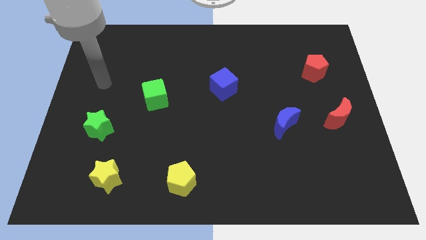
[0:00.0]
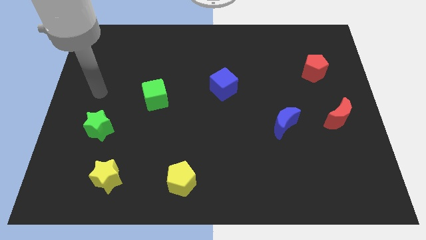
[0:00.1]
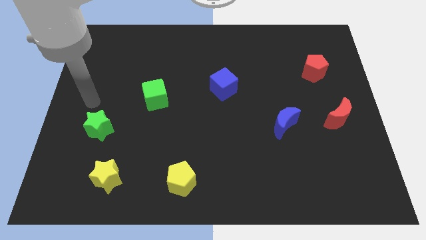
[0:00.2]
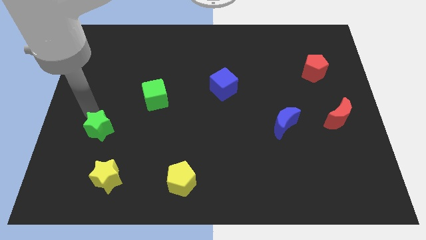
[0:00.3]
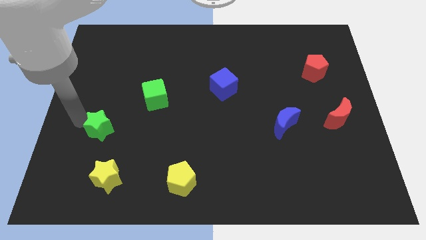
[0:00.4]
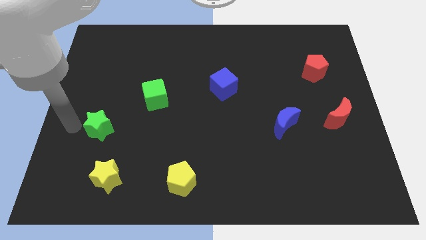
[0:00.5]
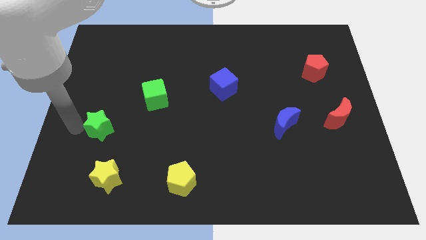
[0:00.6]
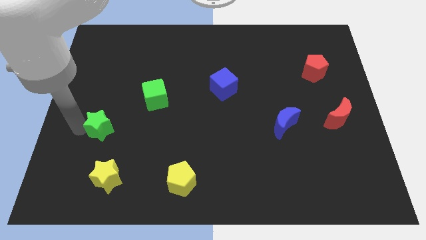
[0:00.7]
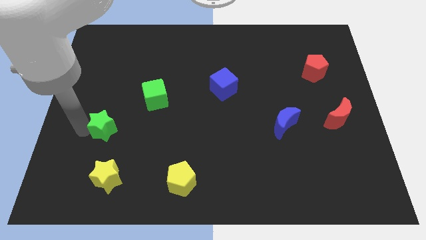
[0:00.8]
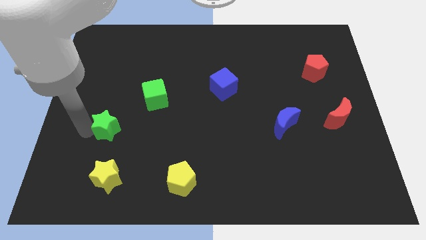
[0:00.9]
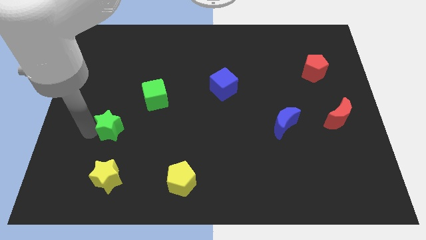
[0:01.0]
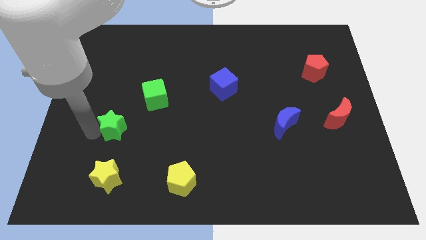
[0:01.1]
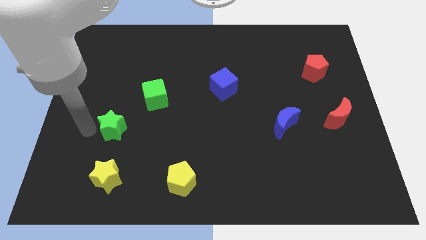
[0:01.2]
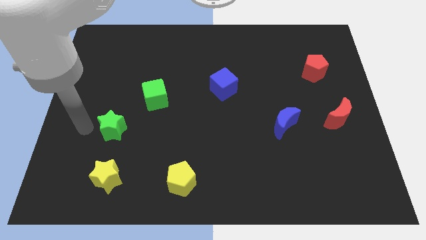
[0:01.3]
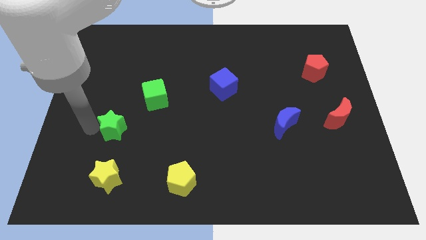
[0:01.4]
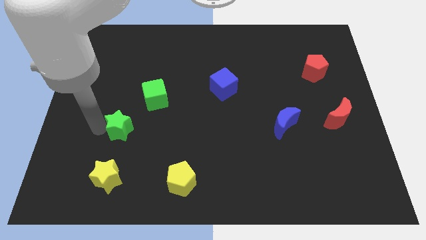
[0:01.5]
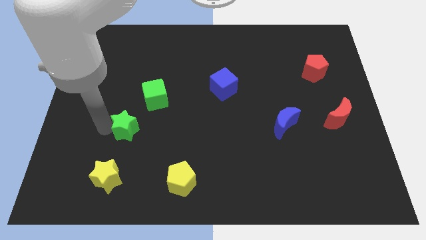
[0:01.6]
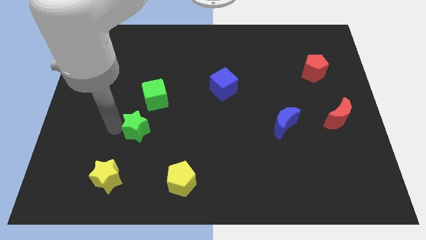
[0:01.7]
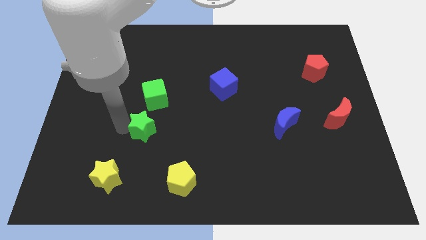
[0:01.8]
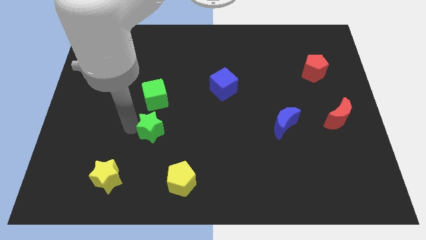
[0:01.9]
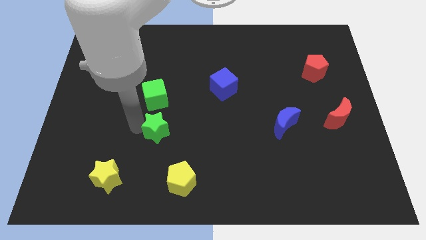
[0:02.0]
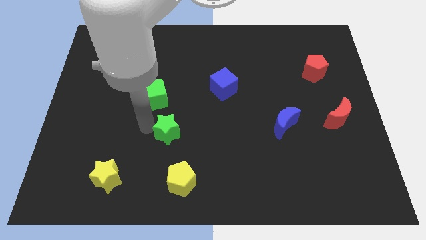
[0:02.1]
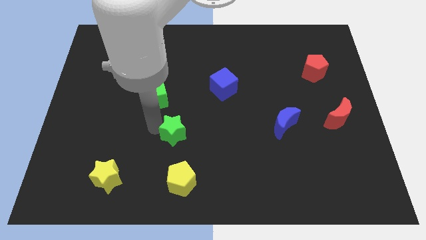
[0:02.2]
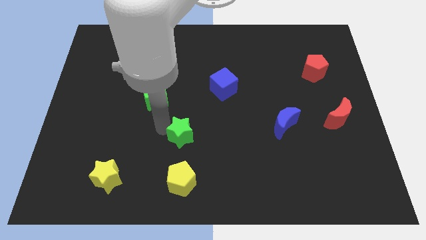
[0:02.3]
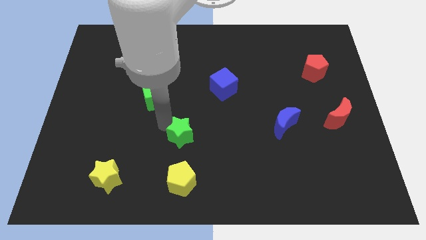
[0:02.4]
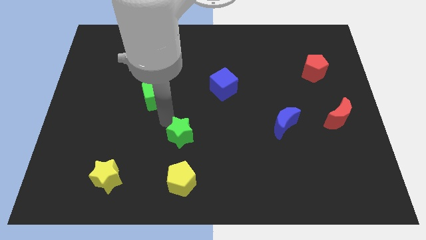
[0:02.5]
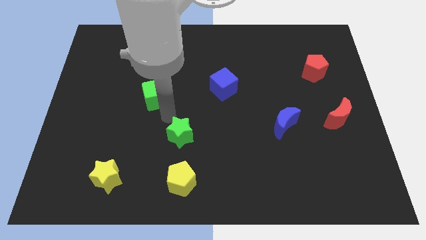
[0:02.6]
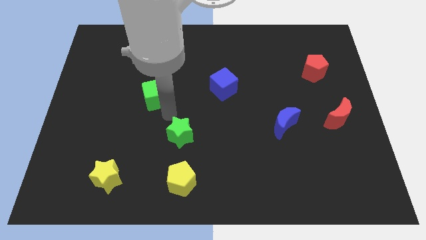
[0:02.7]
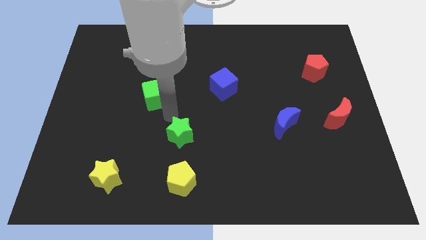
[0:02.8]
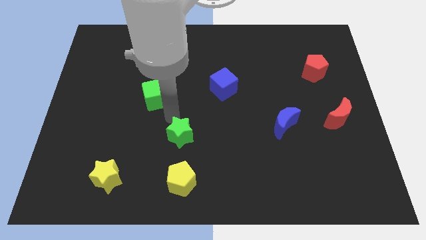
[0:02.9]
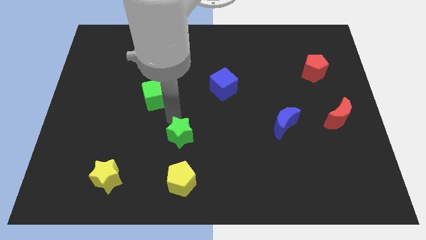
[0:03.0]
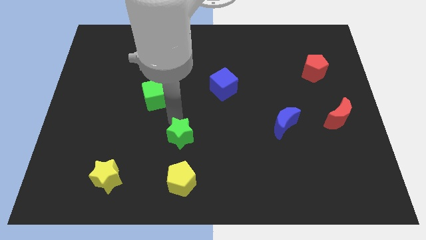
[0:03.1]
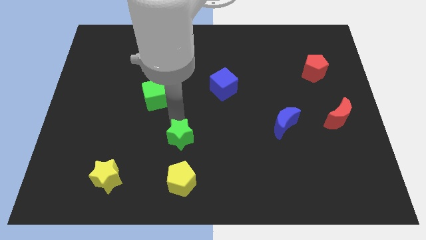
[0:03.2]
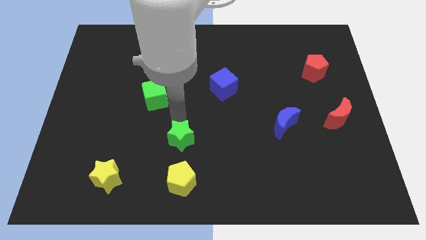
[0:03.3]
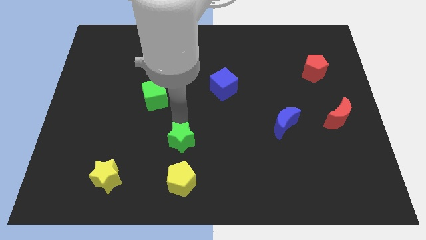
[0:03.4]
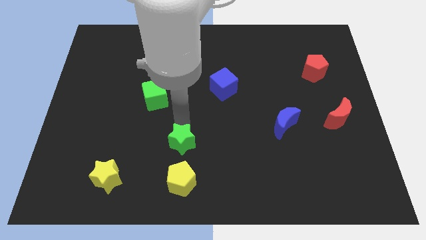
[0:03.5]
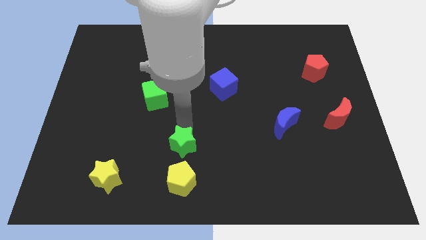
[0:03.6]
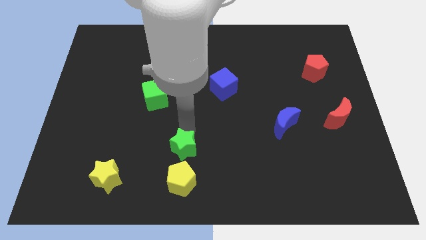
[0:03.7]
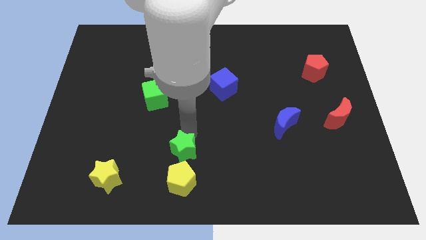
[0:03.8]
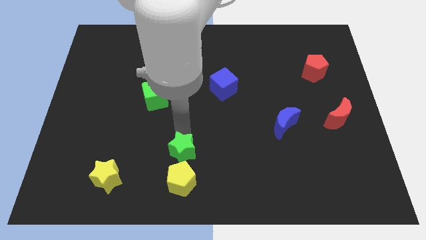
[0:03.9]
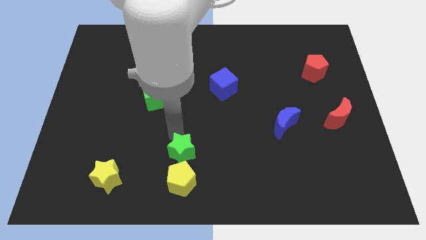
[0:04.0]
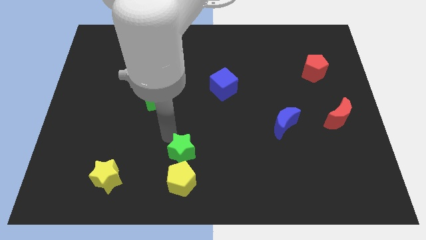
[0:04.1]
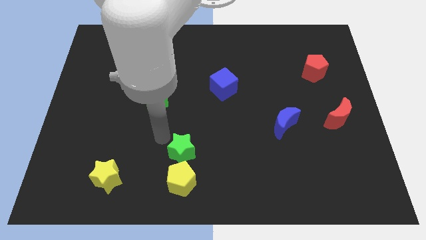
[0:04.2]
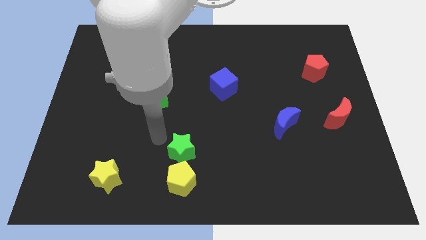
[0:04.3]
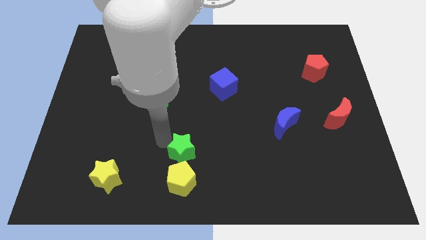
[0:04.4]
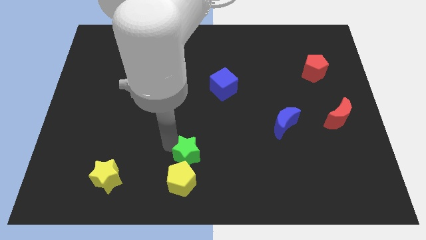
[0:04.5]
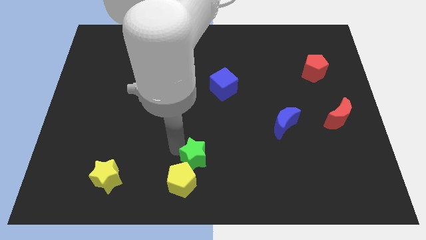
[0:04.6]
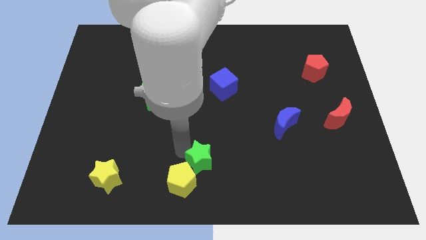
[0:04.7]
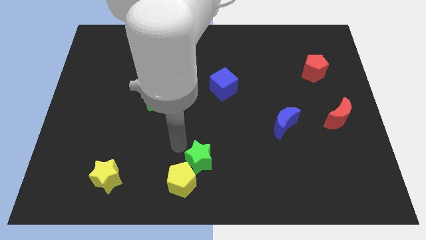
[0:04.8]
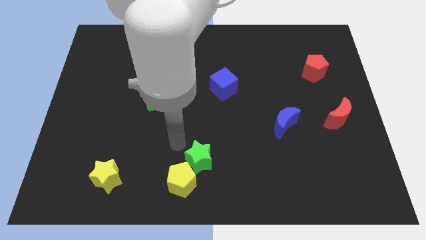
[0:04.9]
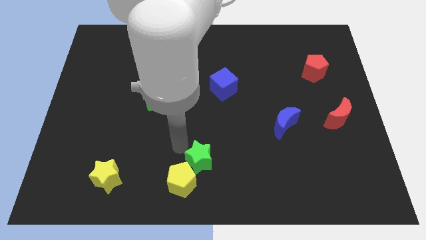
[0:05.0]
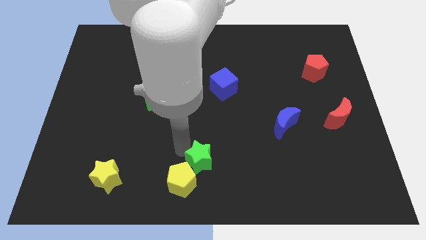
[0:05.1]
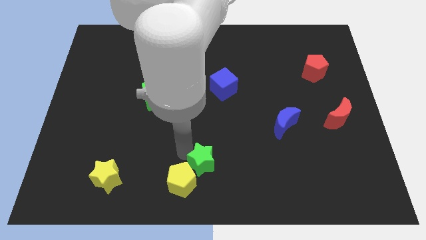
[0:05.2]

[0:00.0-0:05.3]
move the green star right of the yellow pentagon

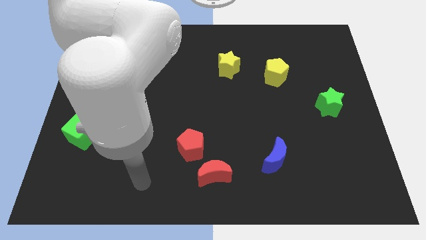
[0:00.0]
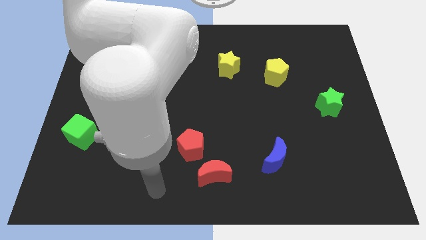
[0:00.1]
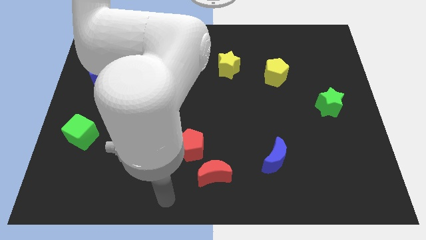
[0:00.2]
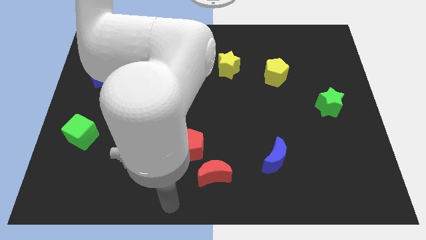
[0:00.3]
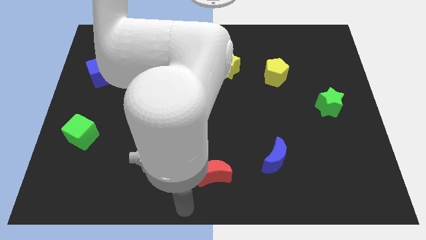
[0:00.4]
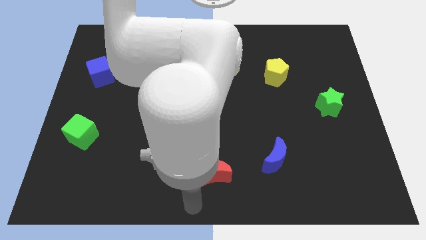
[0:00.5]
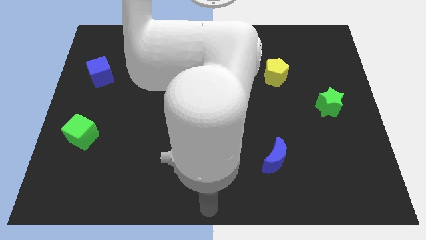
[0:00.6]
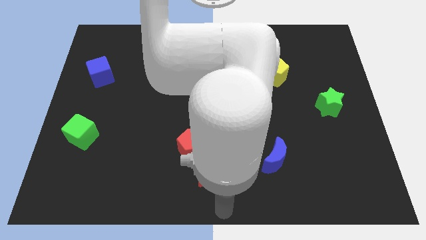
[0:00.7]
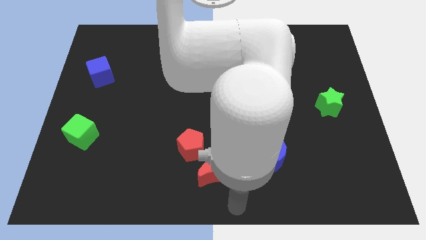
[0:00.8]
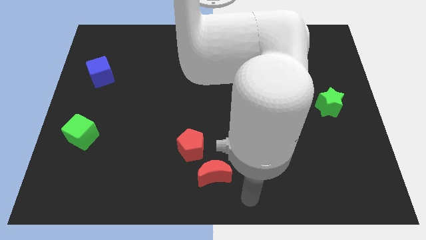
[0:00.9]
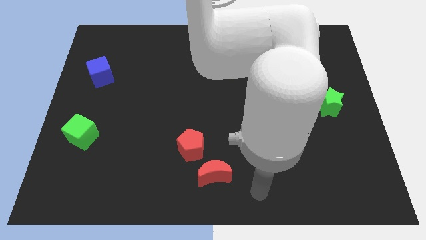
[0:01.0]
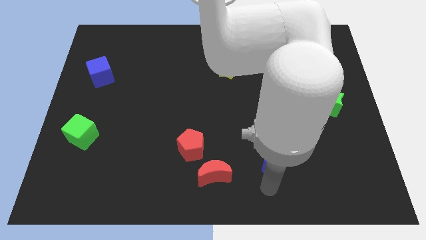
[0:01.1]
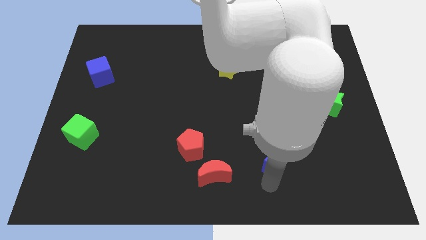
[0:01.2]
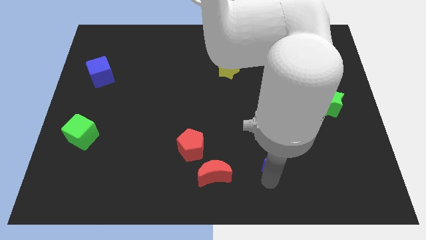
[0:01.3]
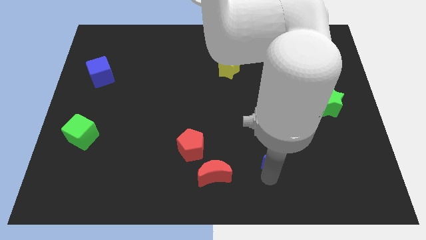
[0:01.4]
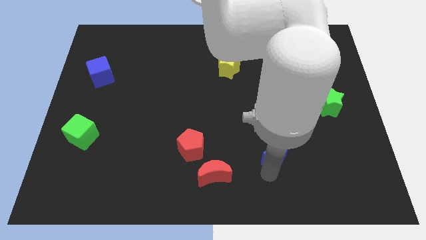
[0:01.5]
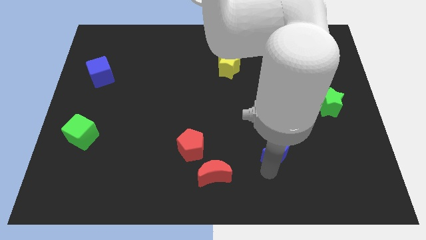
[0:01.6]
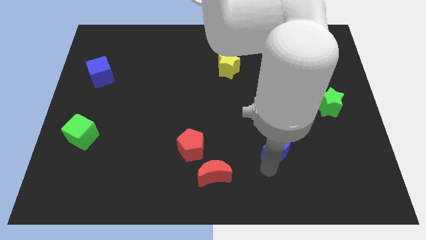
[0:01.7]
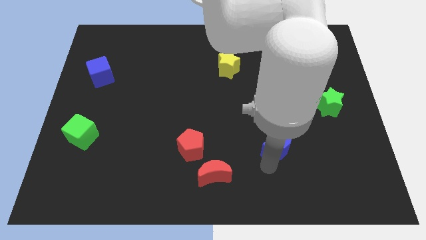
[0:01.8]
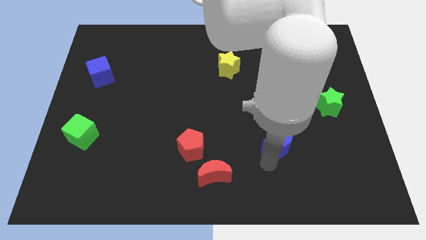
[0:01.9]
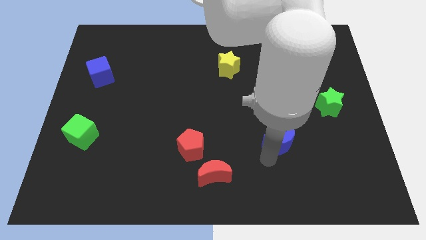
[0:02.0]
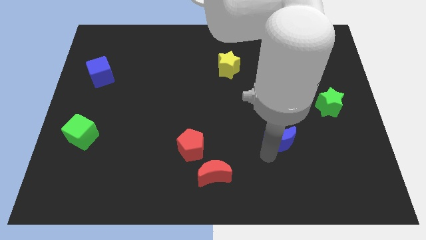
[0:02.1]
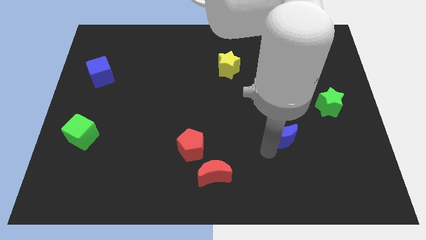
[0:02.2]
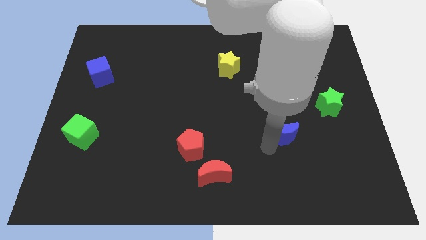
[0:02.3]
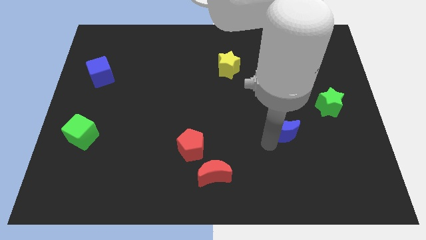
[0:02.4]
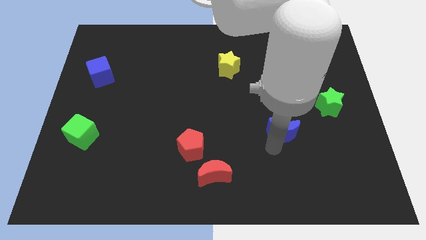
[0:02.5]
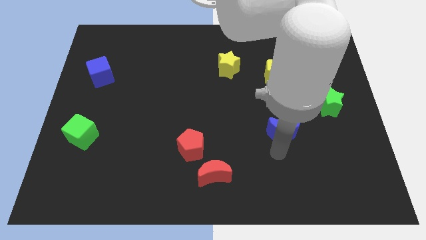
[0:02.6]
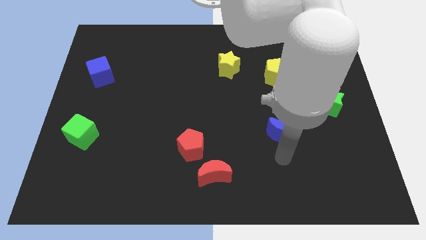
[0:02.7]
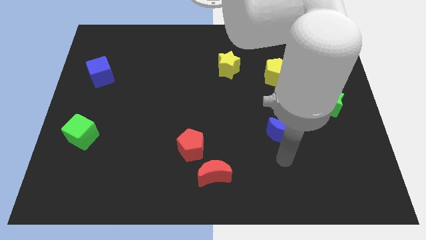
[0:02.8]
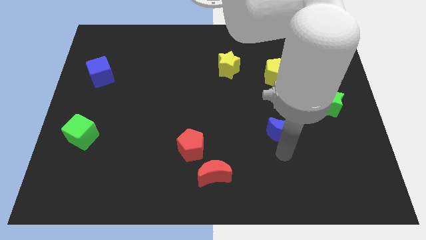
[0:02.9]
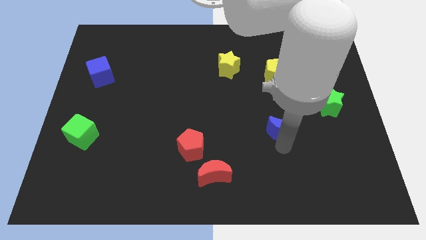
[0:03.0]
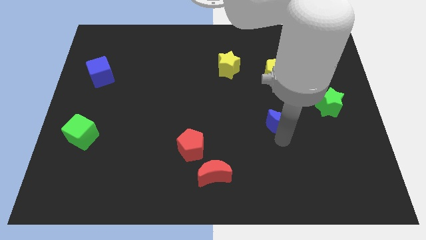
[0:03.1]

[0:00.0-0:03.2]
put the blue moon to the bottom side of the yellow pentagon
